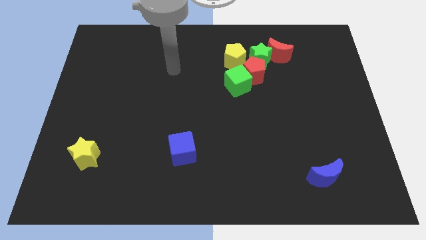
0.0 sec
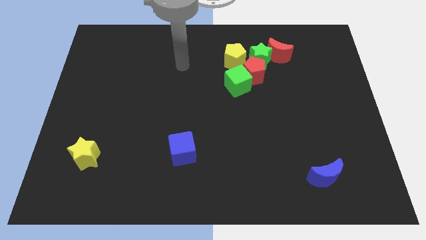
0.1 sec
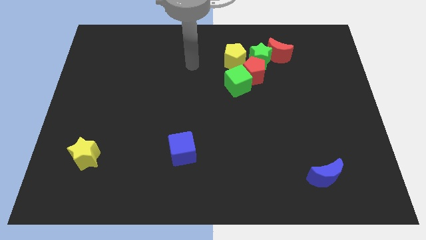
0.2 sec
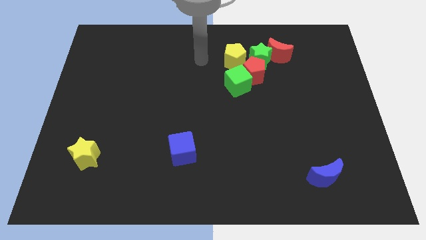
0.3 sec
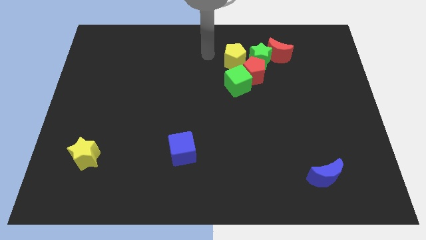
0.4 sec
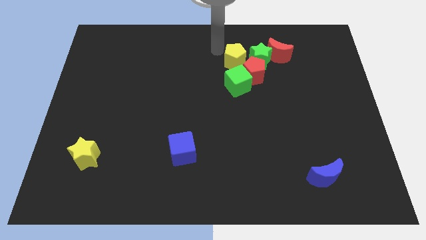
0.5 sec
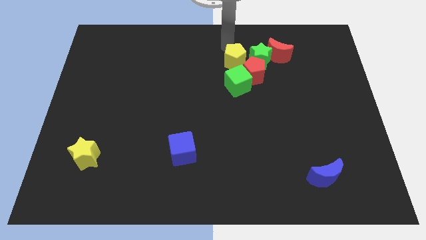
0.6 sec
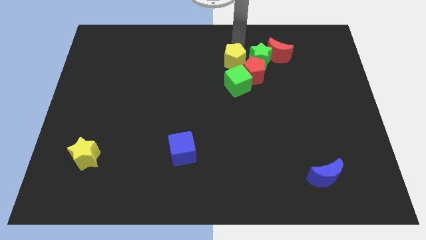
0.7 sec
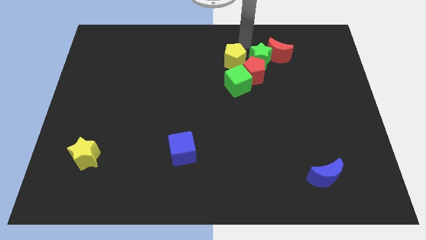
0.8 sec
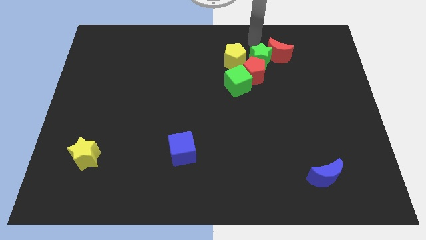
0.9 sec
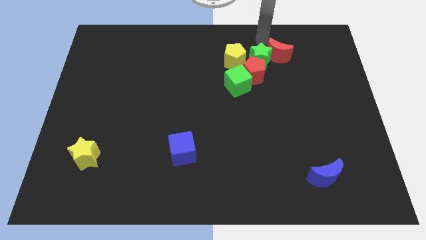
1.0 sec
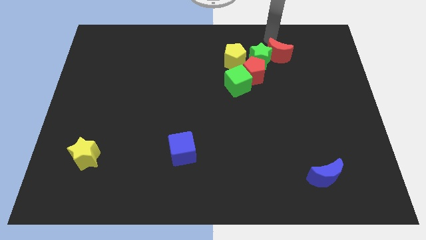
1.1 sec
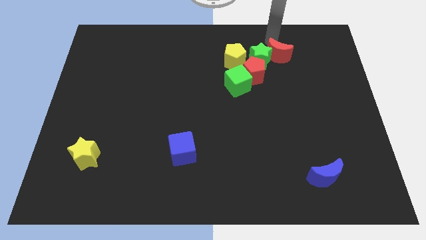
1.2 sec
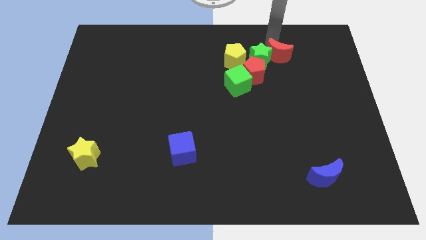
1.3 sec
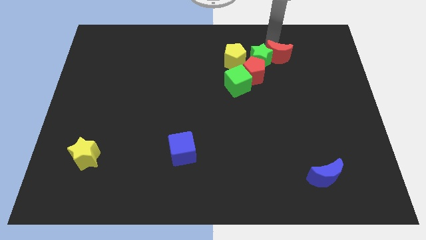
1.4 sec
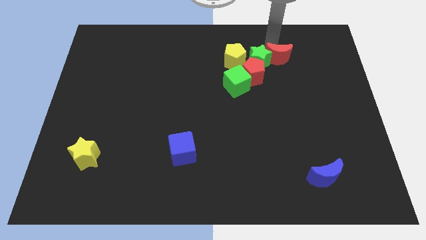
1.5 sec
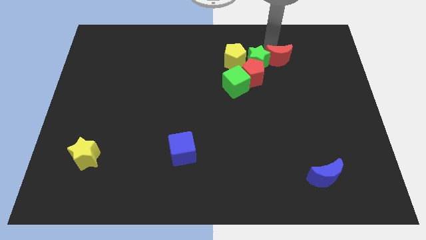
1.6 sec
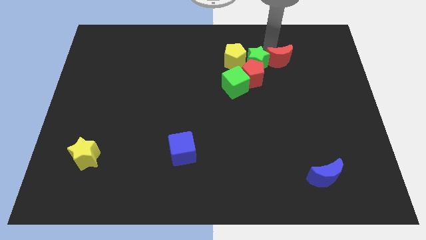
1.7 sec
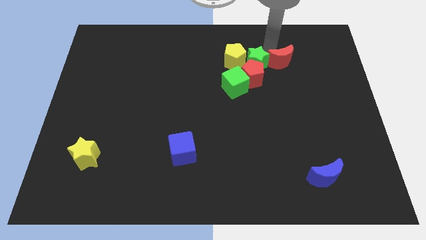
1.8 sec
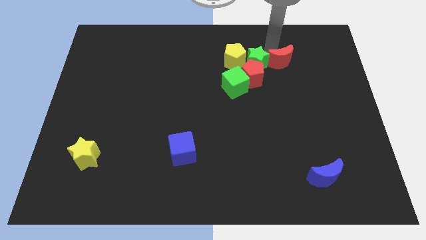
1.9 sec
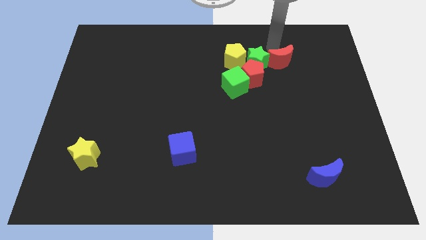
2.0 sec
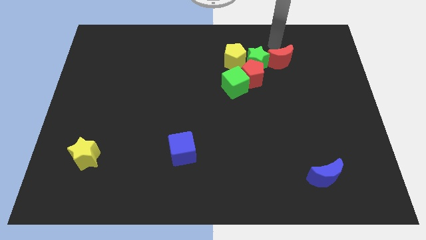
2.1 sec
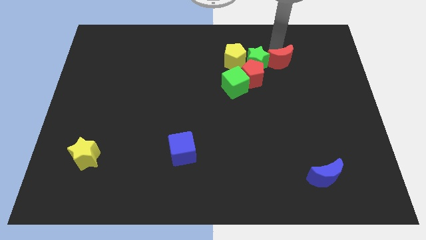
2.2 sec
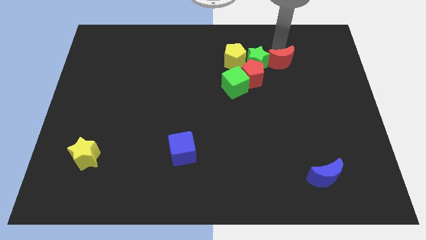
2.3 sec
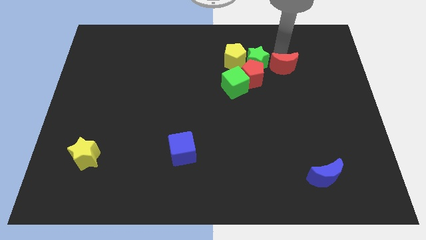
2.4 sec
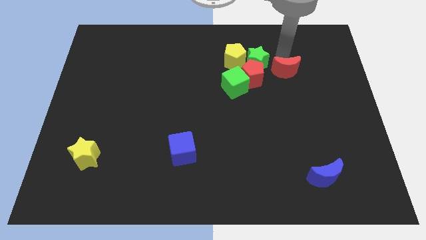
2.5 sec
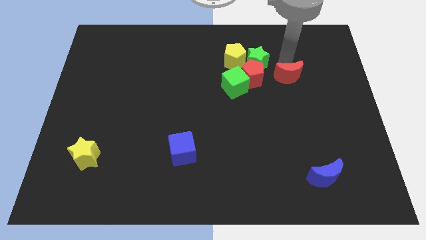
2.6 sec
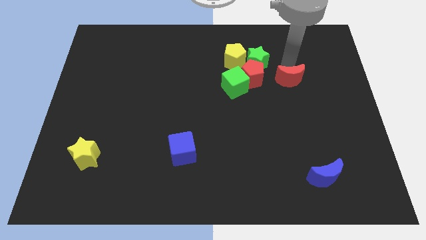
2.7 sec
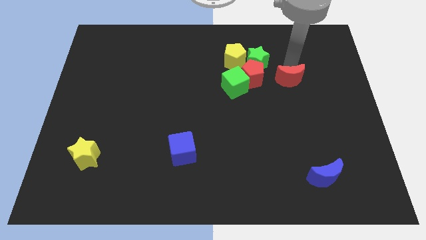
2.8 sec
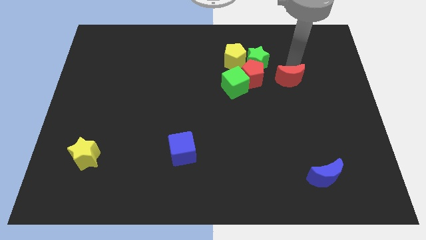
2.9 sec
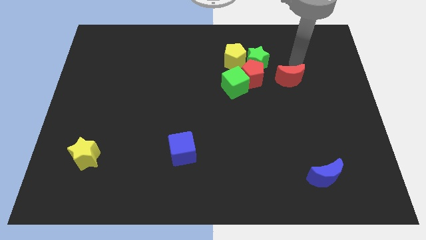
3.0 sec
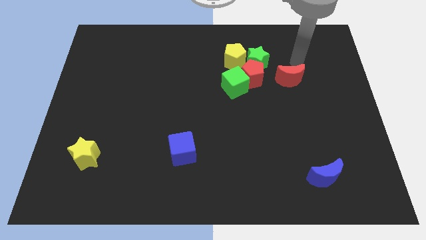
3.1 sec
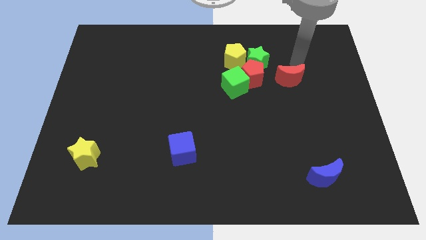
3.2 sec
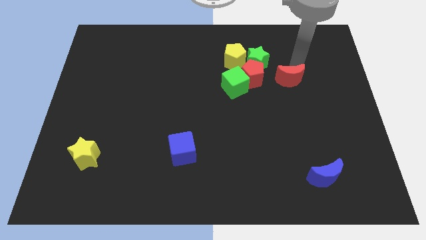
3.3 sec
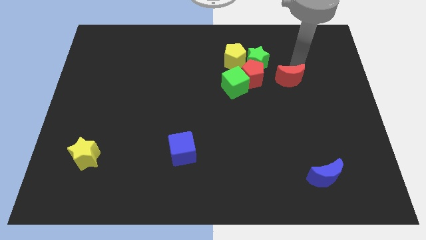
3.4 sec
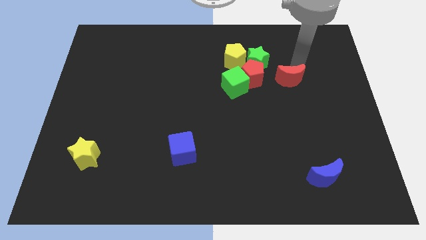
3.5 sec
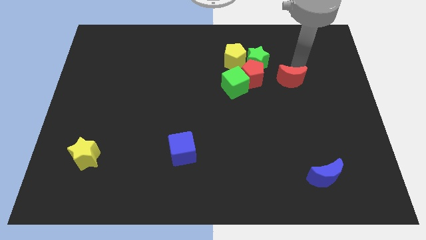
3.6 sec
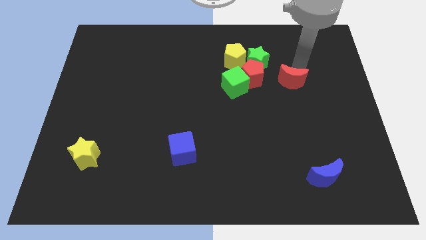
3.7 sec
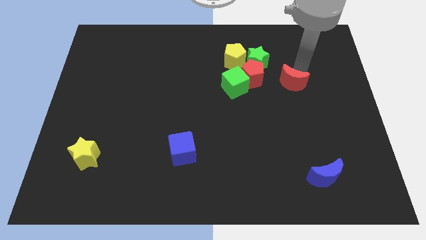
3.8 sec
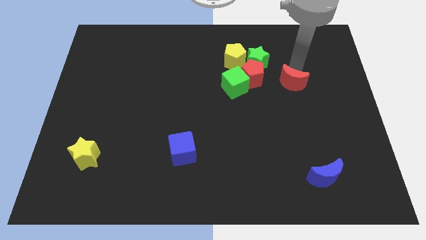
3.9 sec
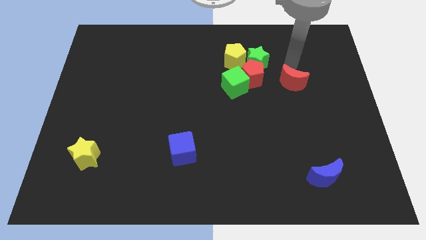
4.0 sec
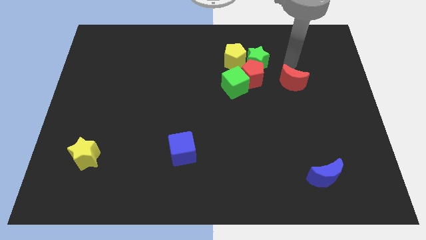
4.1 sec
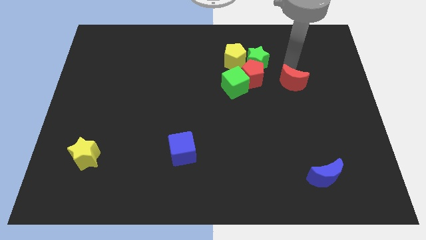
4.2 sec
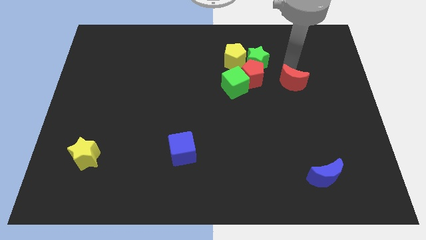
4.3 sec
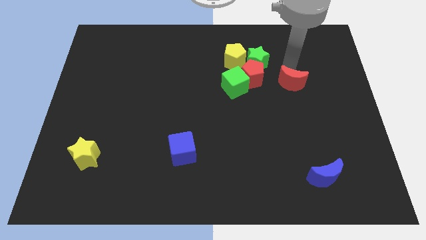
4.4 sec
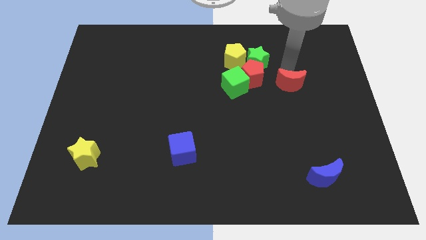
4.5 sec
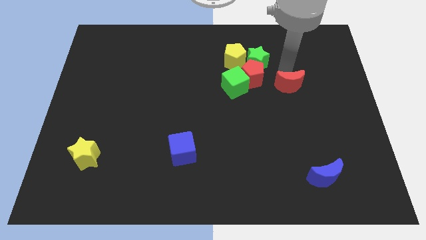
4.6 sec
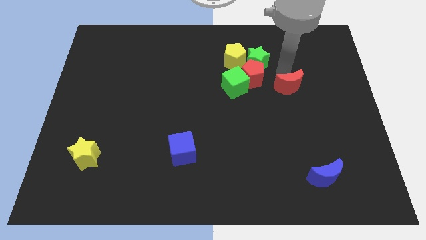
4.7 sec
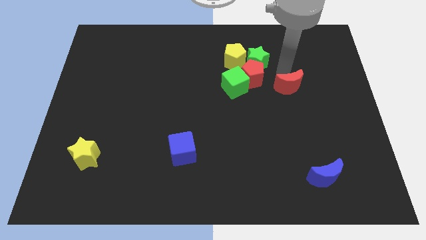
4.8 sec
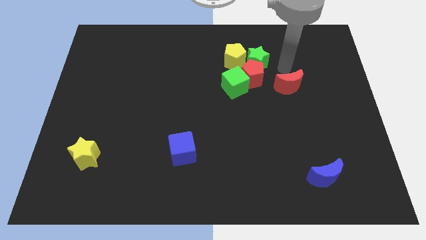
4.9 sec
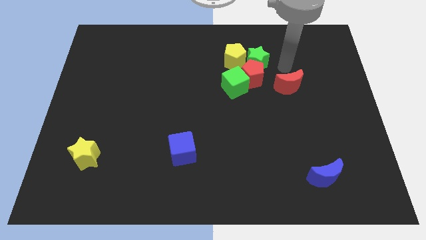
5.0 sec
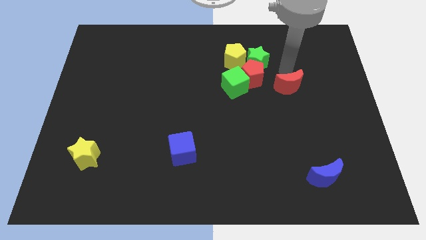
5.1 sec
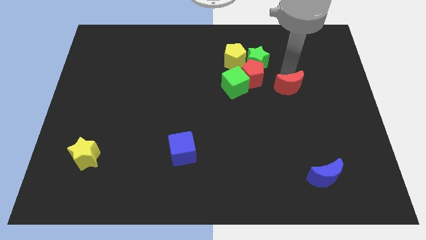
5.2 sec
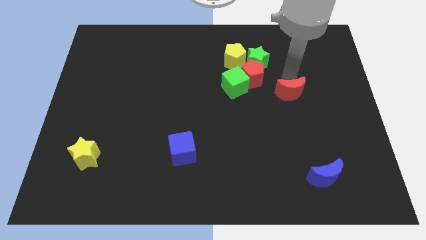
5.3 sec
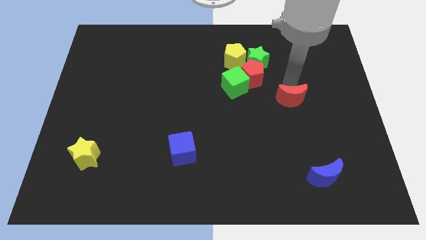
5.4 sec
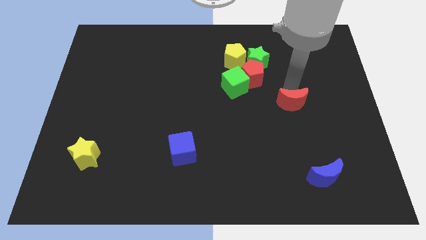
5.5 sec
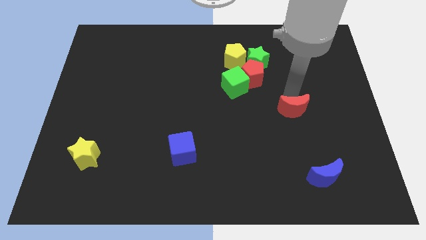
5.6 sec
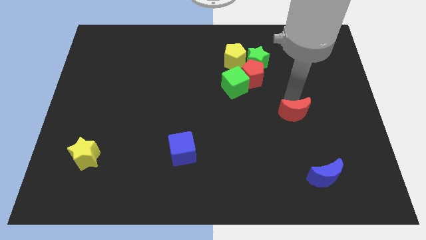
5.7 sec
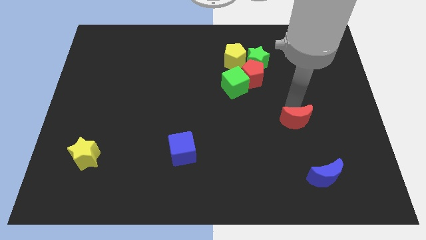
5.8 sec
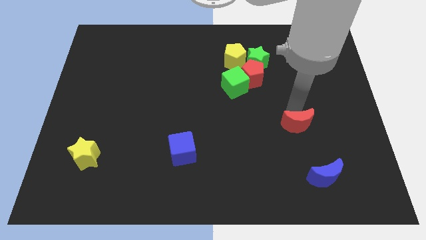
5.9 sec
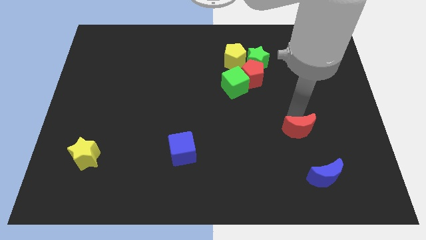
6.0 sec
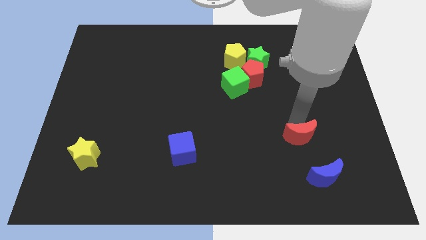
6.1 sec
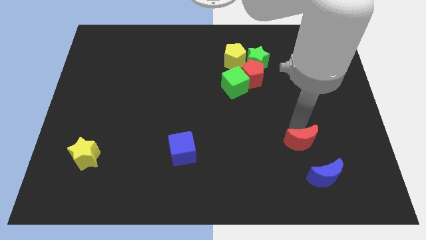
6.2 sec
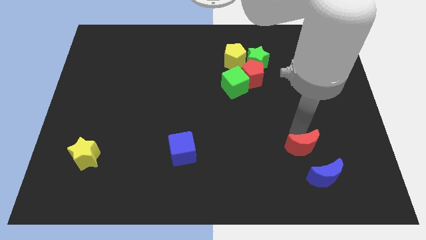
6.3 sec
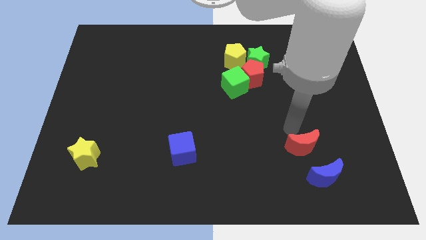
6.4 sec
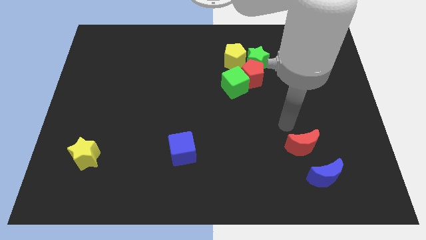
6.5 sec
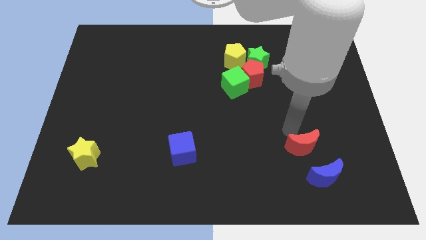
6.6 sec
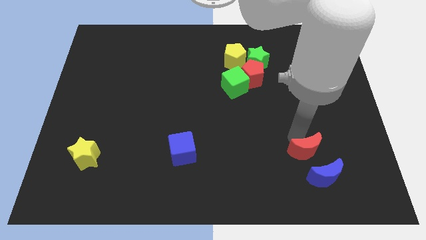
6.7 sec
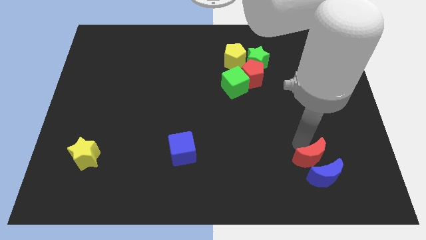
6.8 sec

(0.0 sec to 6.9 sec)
push the red moon next to the blue moon

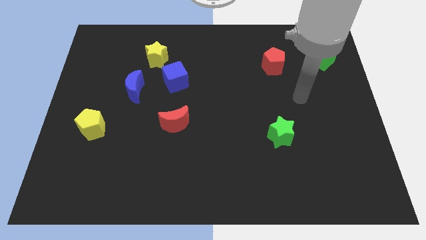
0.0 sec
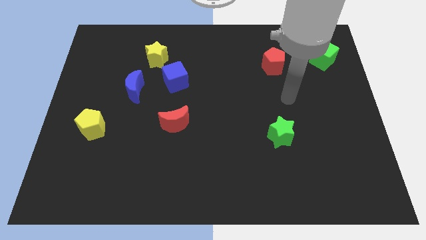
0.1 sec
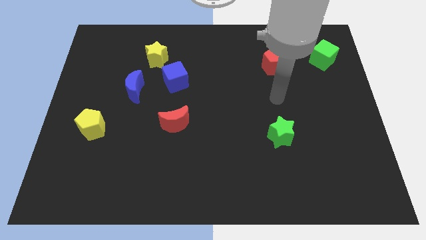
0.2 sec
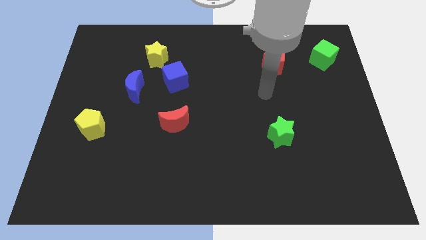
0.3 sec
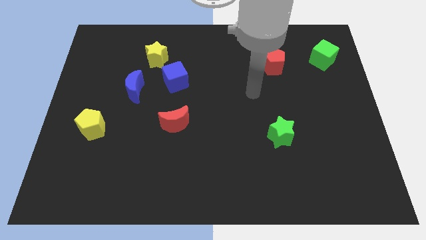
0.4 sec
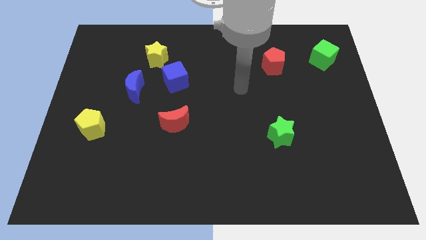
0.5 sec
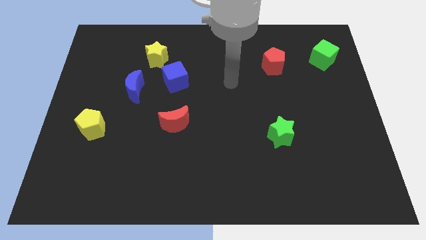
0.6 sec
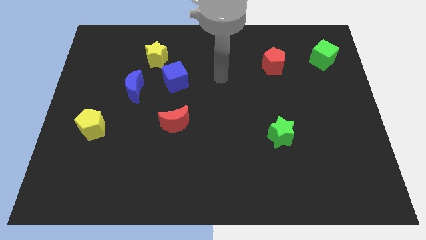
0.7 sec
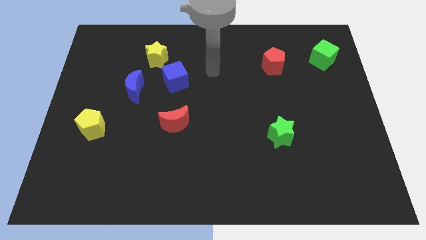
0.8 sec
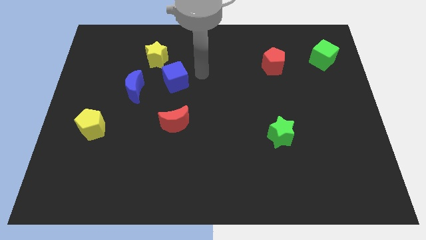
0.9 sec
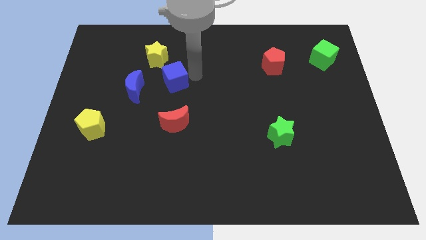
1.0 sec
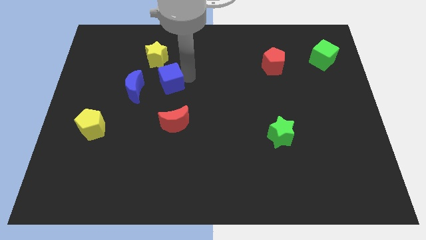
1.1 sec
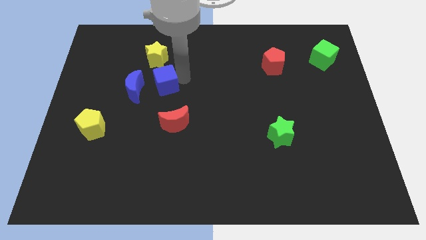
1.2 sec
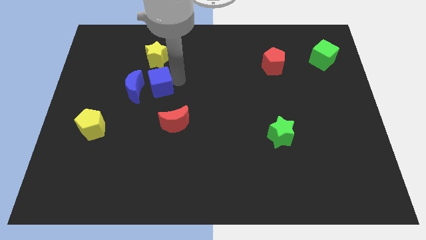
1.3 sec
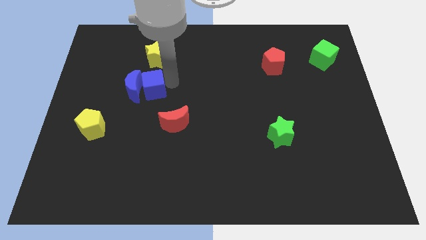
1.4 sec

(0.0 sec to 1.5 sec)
slide the blue cube close to the blue moon
